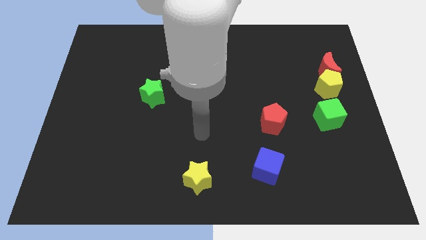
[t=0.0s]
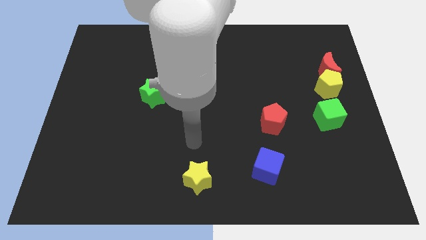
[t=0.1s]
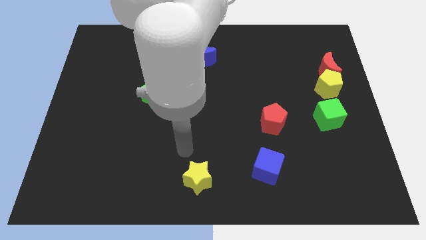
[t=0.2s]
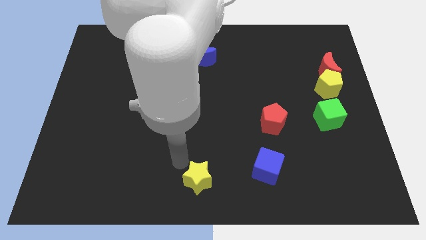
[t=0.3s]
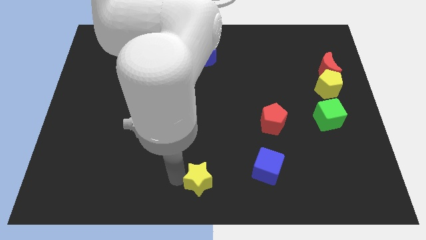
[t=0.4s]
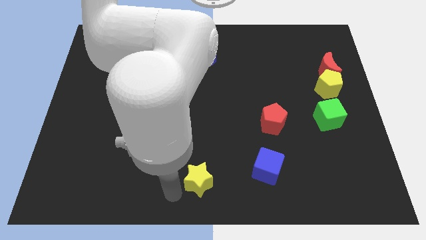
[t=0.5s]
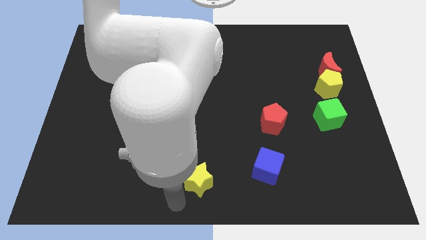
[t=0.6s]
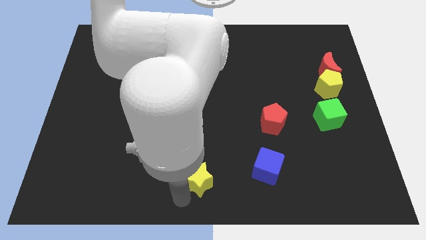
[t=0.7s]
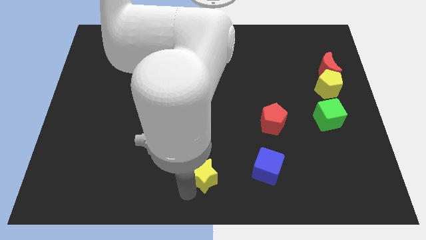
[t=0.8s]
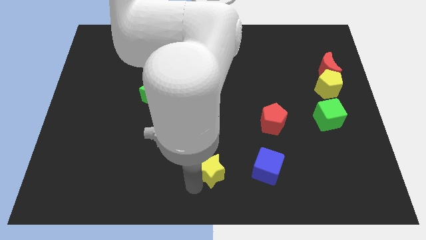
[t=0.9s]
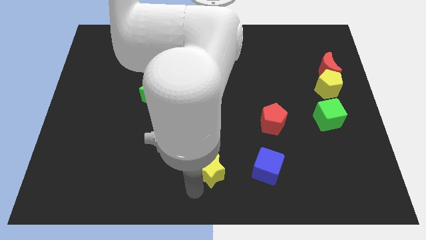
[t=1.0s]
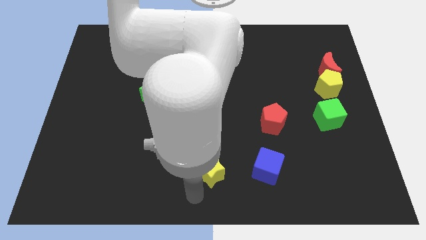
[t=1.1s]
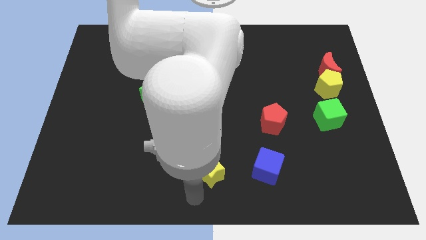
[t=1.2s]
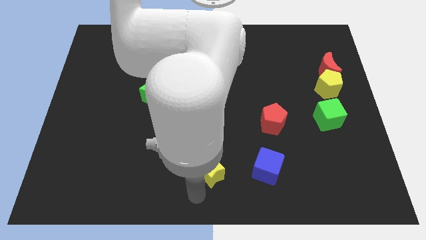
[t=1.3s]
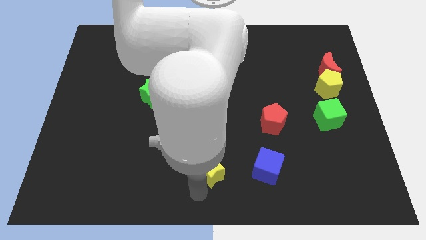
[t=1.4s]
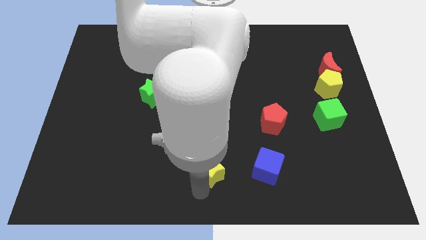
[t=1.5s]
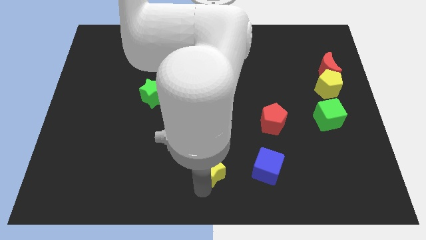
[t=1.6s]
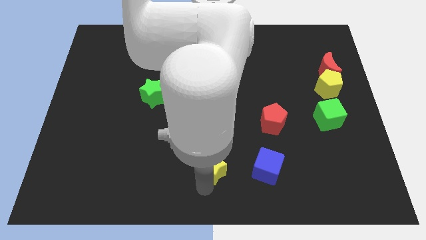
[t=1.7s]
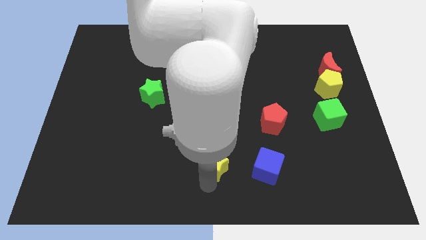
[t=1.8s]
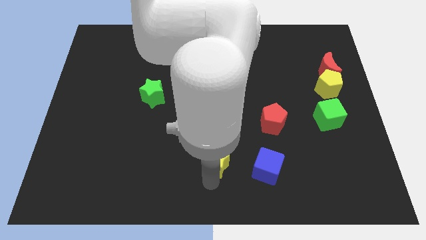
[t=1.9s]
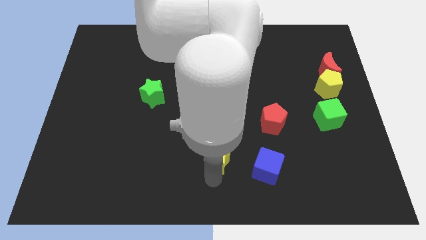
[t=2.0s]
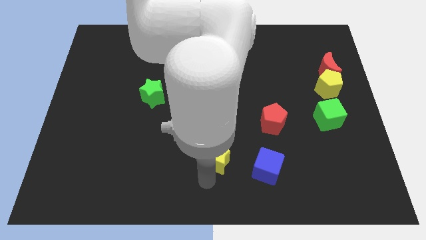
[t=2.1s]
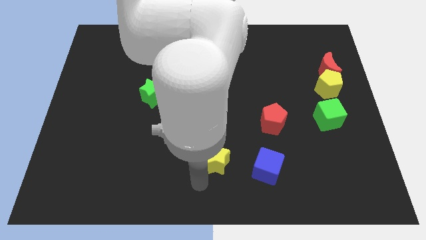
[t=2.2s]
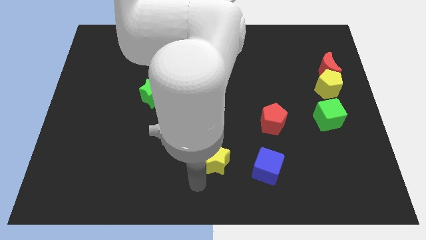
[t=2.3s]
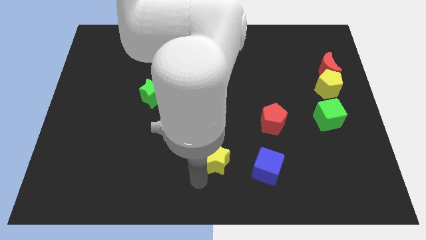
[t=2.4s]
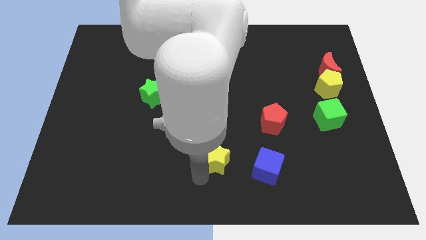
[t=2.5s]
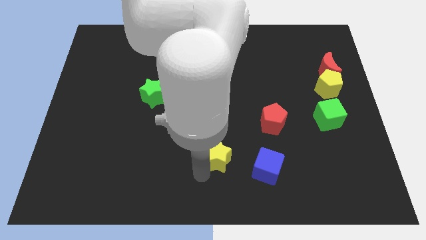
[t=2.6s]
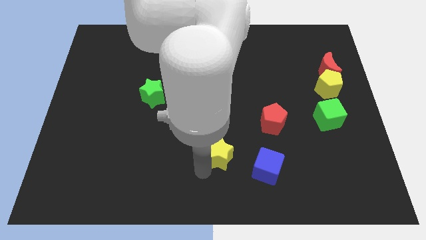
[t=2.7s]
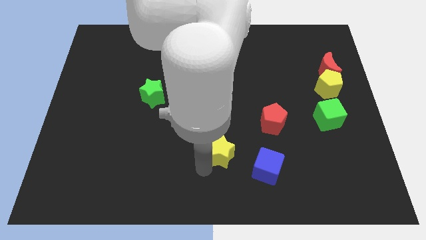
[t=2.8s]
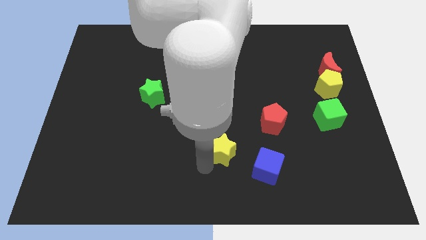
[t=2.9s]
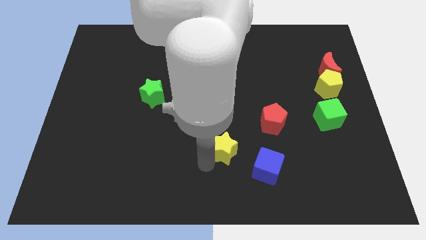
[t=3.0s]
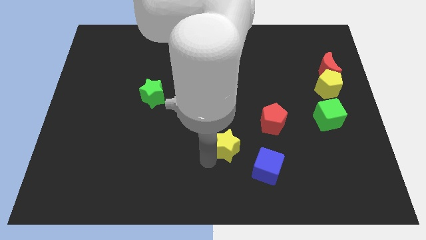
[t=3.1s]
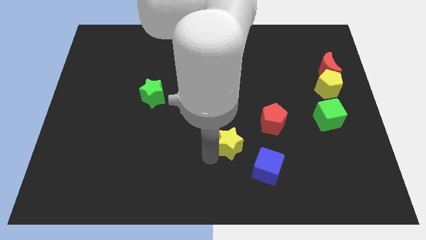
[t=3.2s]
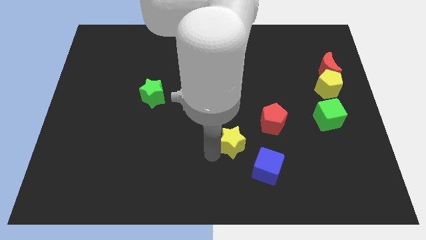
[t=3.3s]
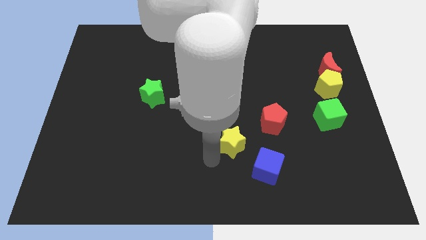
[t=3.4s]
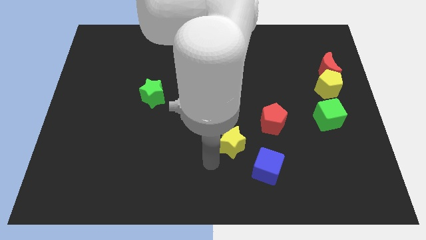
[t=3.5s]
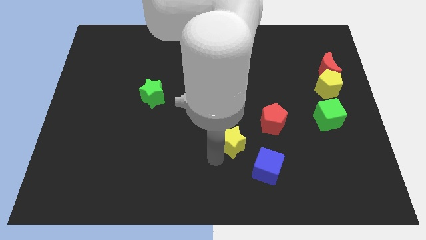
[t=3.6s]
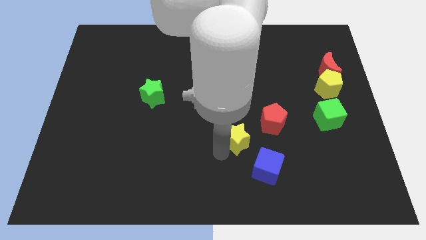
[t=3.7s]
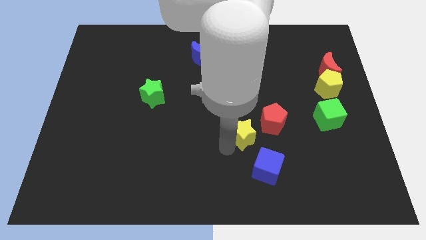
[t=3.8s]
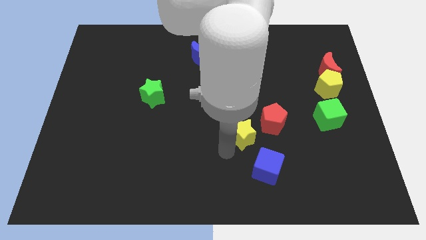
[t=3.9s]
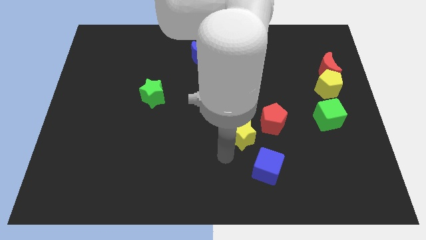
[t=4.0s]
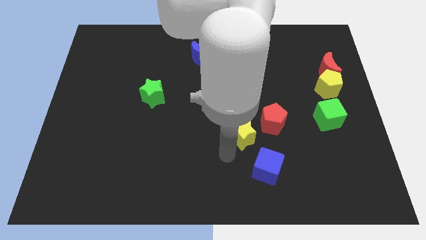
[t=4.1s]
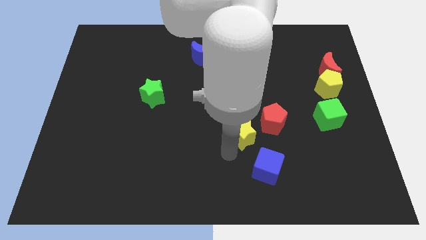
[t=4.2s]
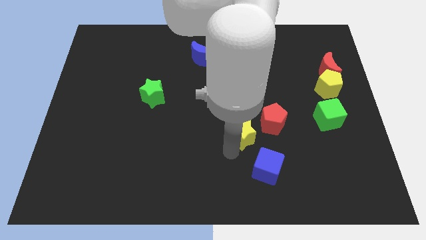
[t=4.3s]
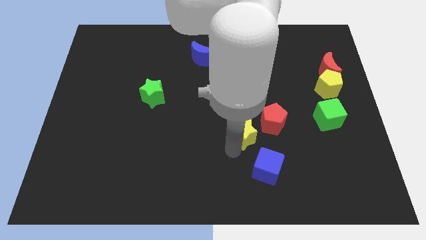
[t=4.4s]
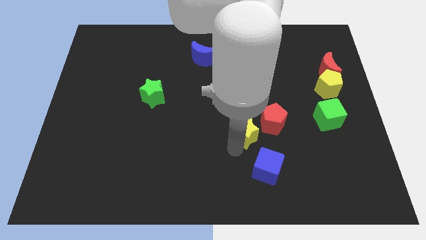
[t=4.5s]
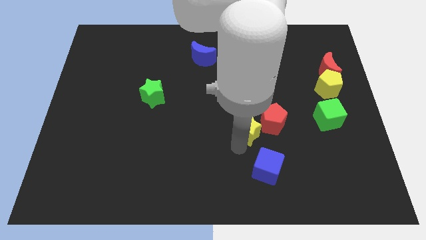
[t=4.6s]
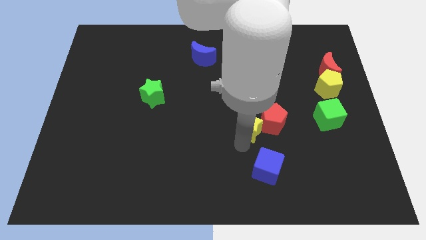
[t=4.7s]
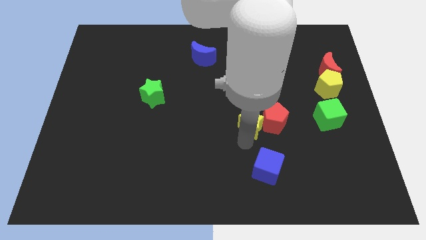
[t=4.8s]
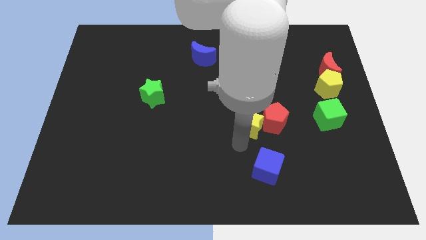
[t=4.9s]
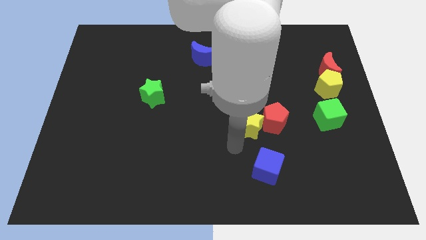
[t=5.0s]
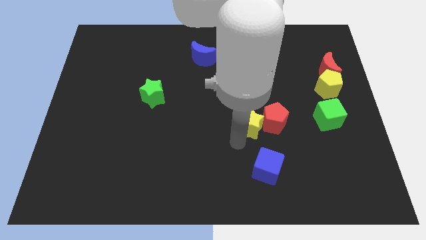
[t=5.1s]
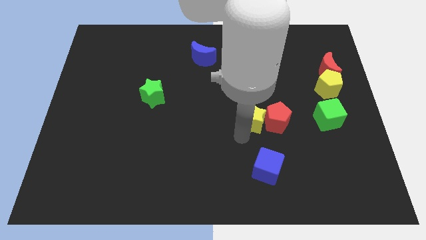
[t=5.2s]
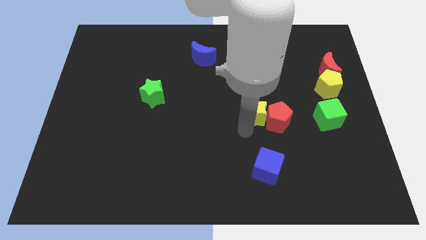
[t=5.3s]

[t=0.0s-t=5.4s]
push the yellow star upwards and to the right

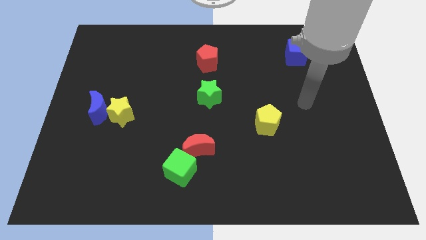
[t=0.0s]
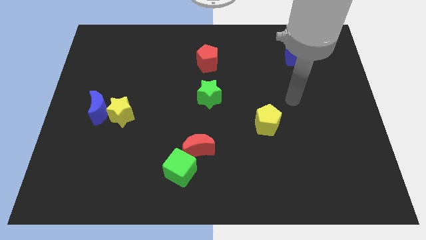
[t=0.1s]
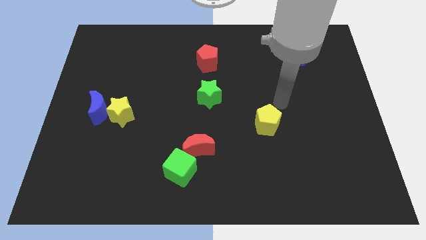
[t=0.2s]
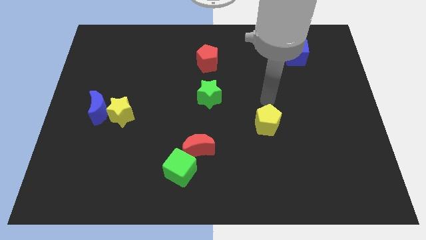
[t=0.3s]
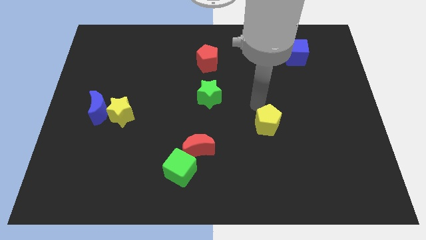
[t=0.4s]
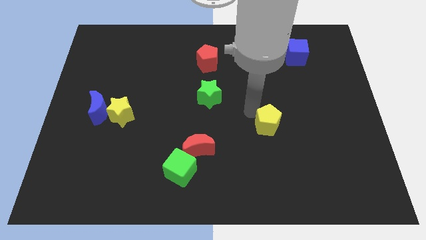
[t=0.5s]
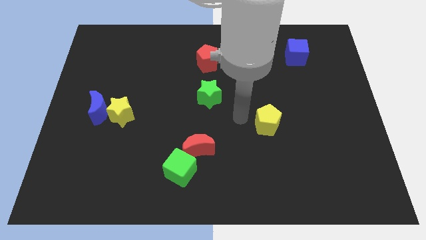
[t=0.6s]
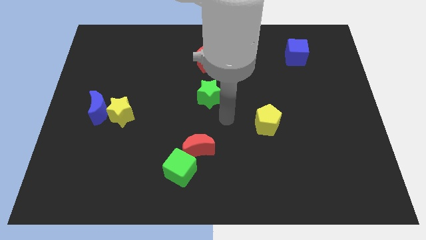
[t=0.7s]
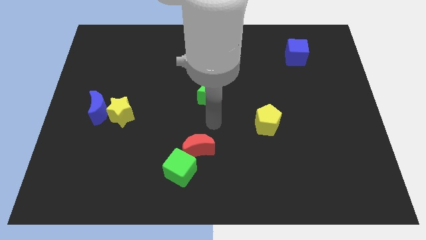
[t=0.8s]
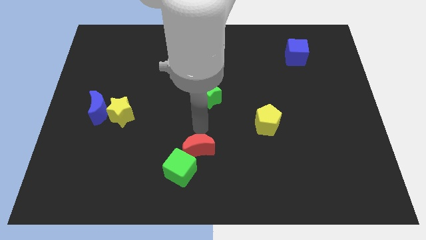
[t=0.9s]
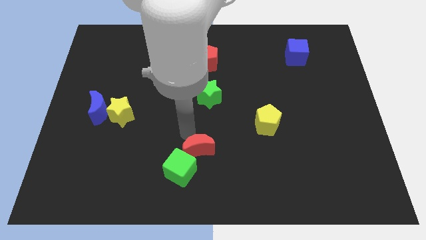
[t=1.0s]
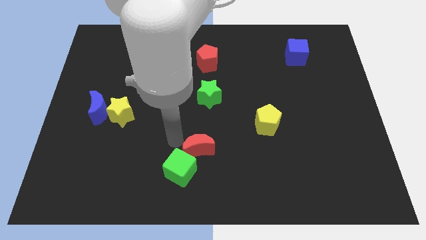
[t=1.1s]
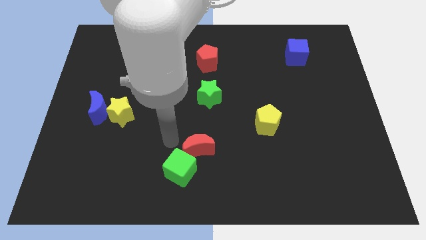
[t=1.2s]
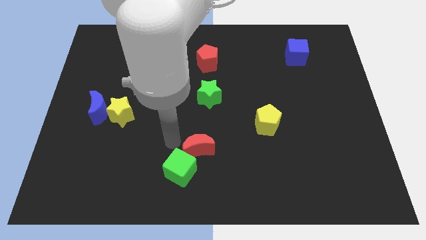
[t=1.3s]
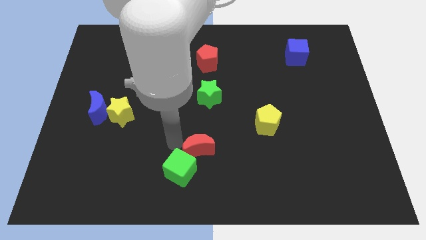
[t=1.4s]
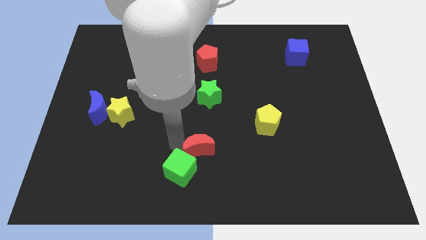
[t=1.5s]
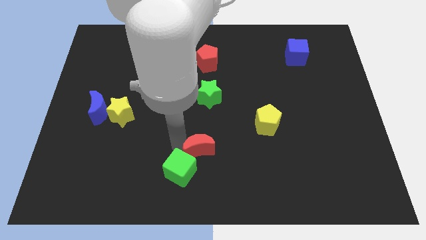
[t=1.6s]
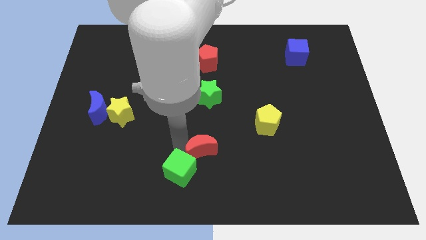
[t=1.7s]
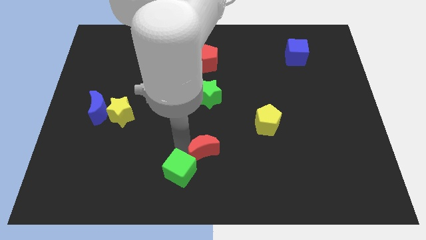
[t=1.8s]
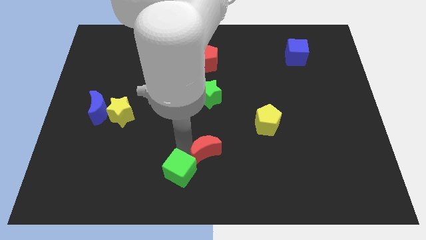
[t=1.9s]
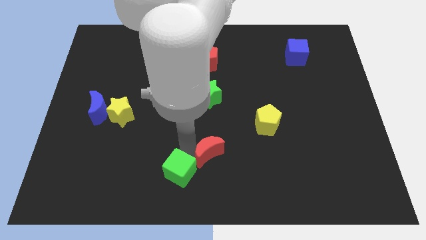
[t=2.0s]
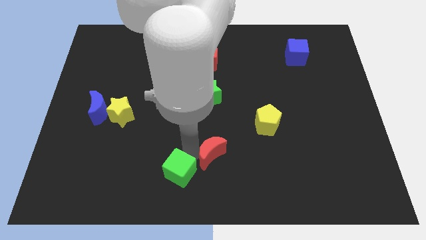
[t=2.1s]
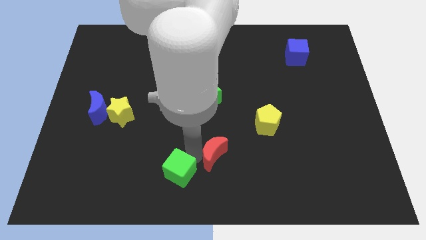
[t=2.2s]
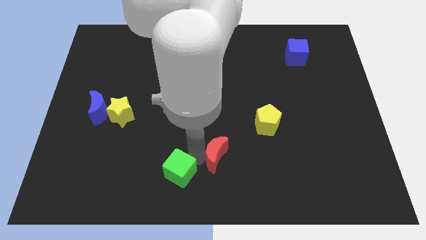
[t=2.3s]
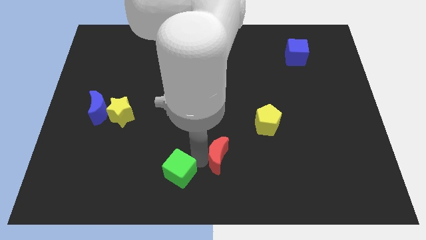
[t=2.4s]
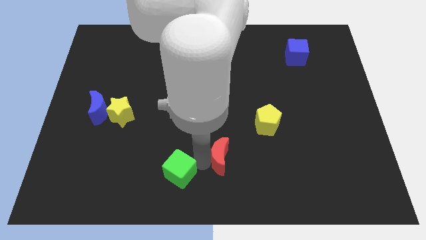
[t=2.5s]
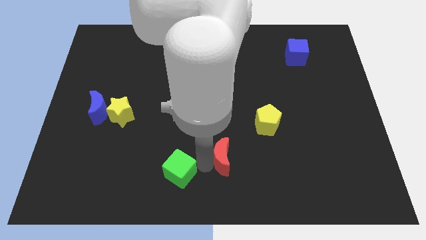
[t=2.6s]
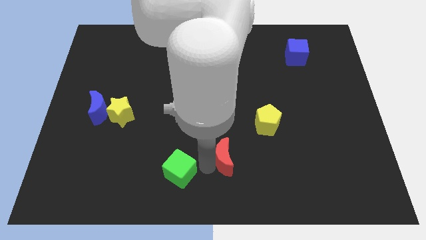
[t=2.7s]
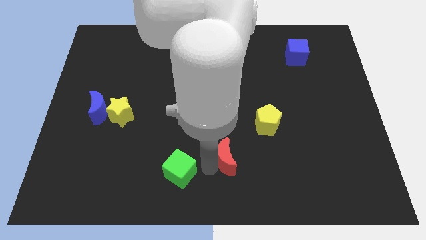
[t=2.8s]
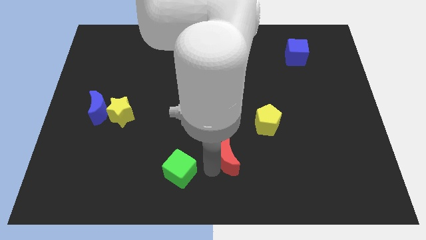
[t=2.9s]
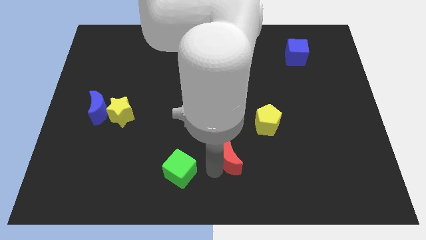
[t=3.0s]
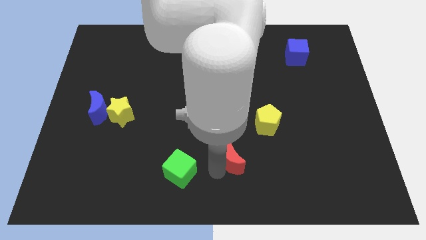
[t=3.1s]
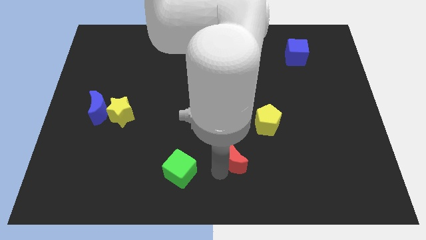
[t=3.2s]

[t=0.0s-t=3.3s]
slide the red moon right a bit
